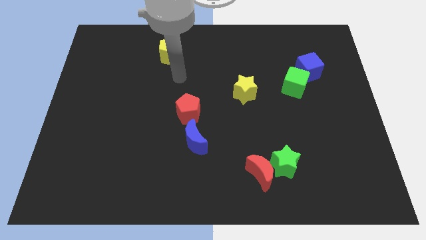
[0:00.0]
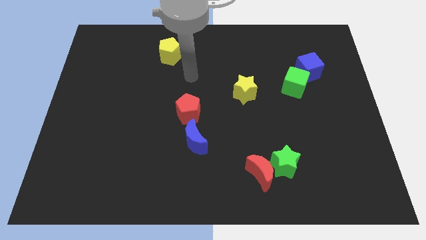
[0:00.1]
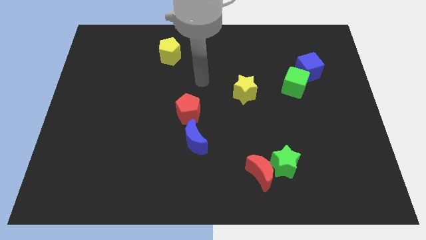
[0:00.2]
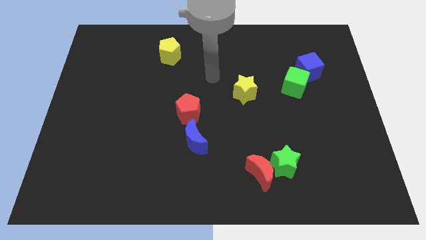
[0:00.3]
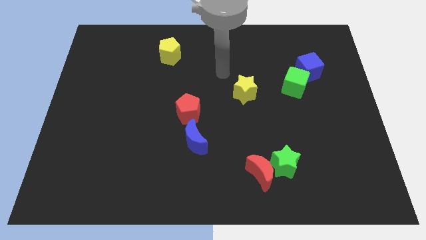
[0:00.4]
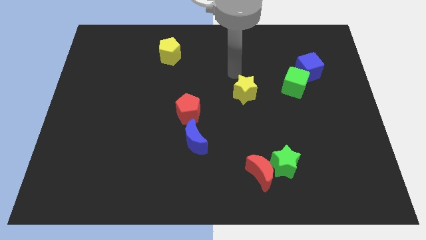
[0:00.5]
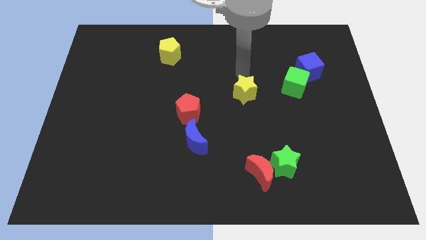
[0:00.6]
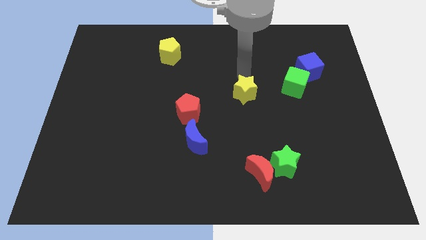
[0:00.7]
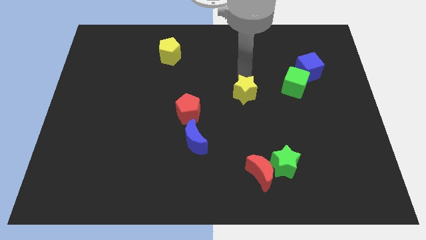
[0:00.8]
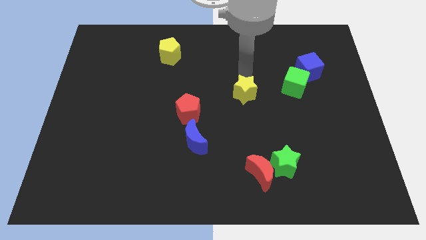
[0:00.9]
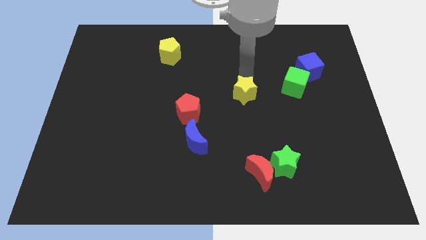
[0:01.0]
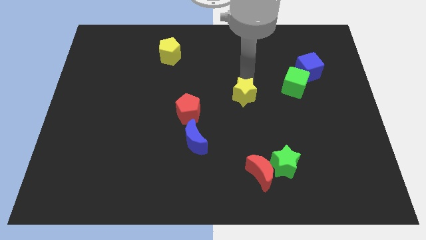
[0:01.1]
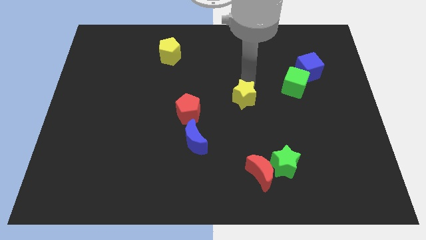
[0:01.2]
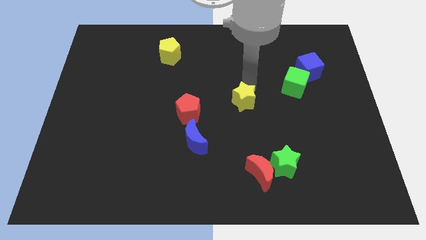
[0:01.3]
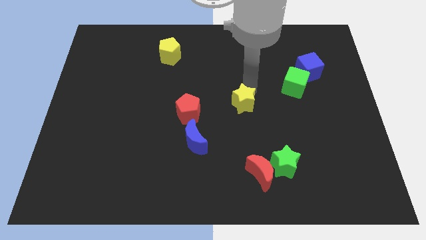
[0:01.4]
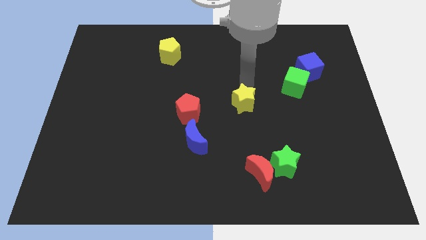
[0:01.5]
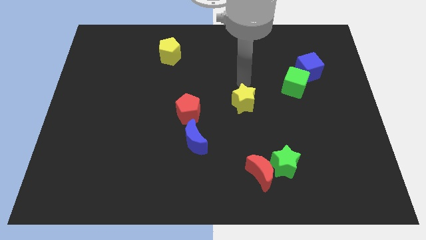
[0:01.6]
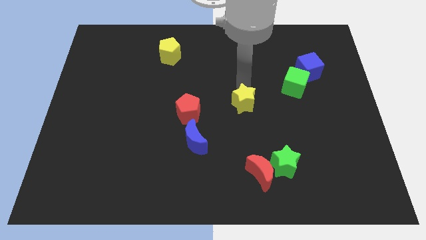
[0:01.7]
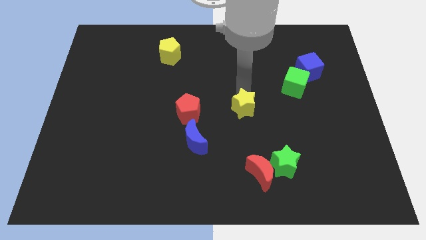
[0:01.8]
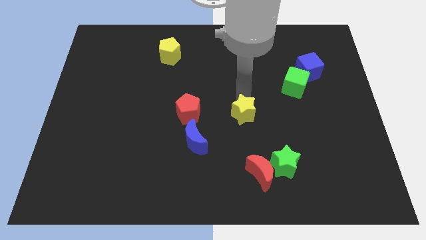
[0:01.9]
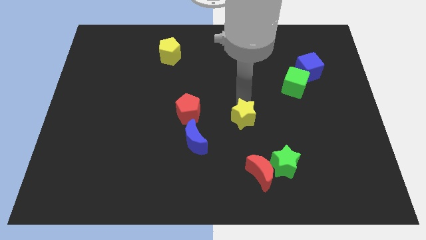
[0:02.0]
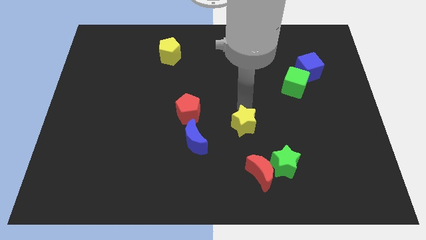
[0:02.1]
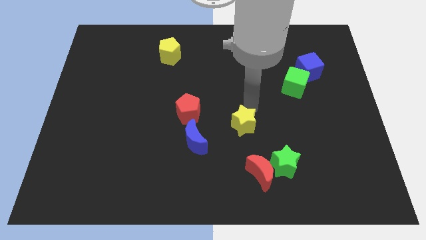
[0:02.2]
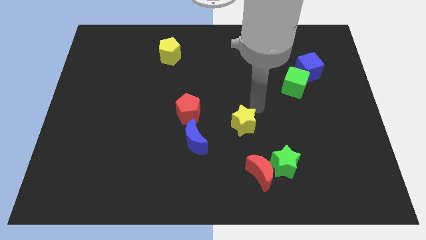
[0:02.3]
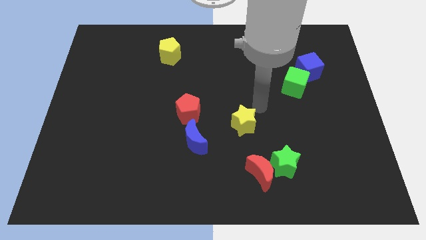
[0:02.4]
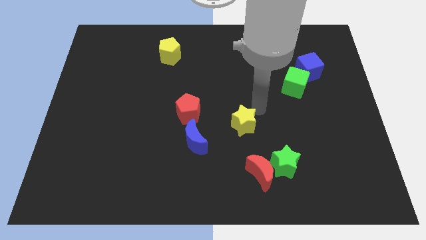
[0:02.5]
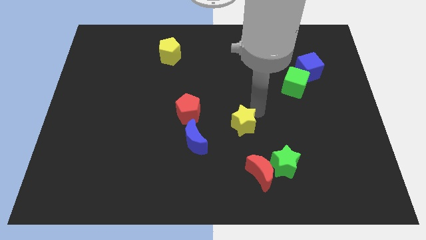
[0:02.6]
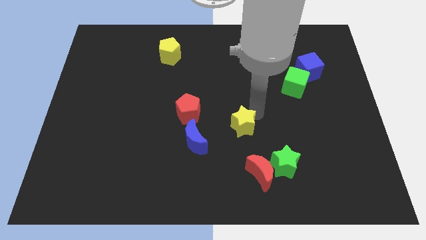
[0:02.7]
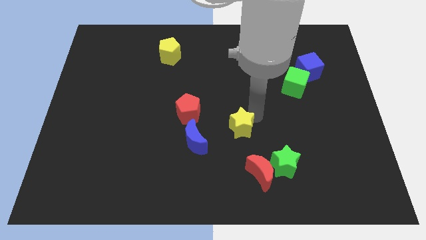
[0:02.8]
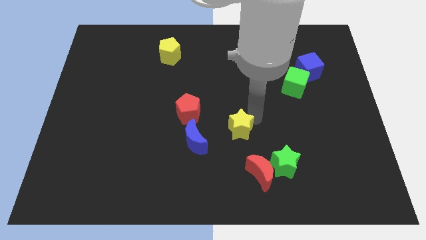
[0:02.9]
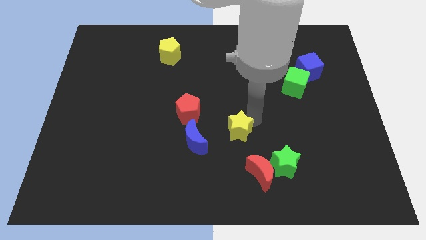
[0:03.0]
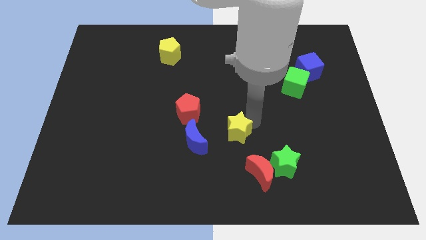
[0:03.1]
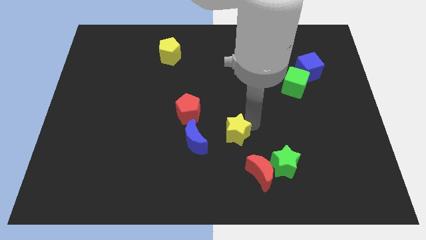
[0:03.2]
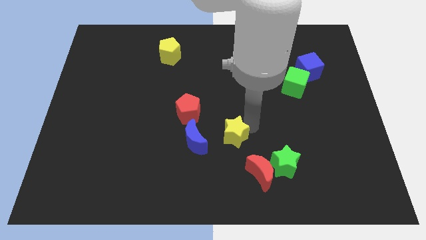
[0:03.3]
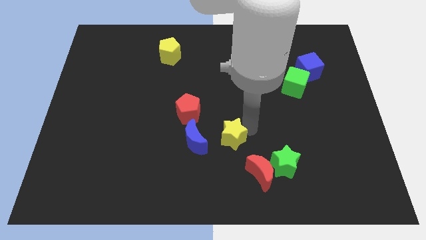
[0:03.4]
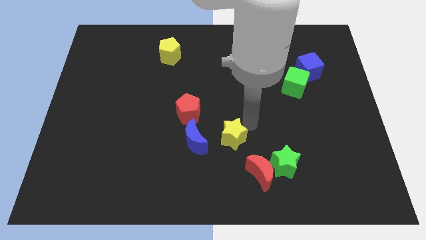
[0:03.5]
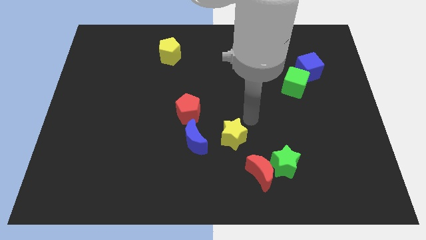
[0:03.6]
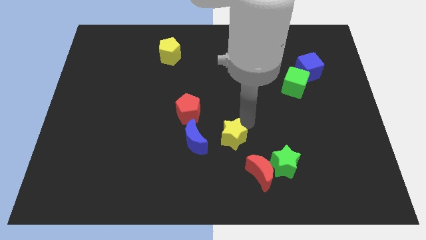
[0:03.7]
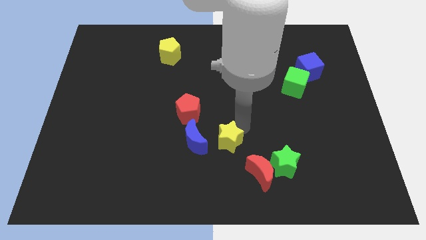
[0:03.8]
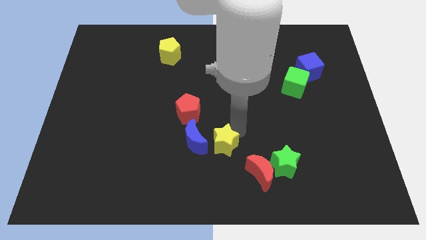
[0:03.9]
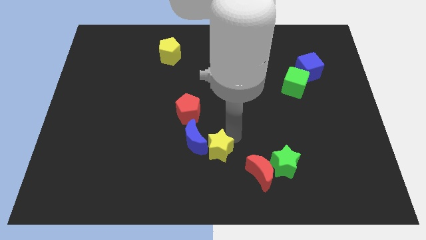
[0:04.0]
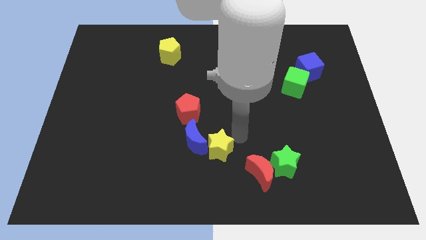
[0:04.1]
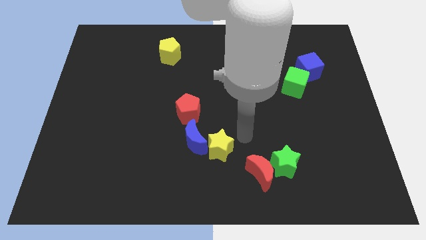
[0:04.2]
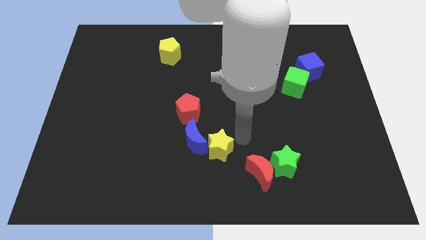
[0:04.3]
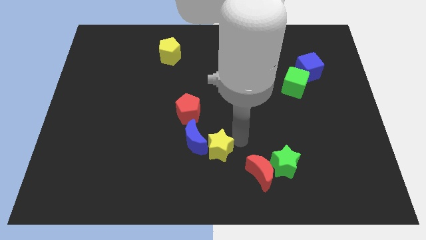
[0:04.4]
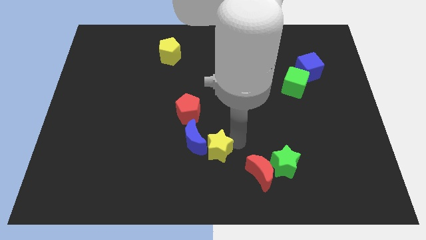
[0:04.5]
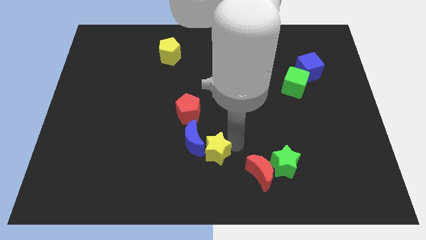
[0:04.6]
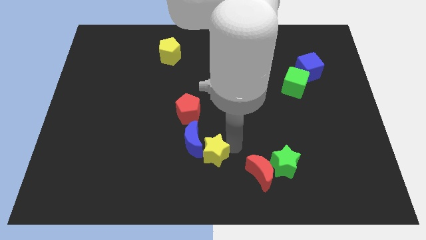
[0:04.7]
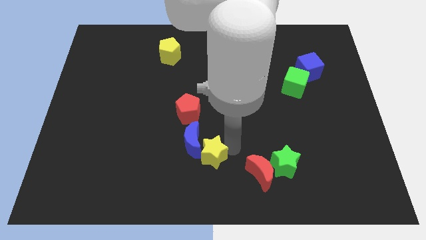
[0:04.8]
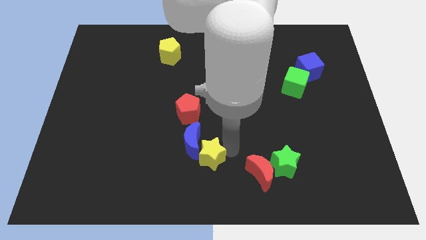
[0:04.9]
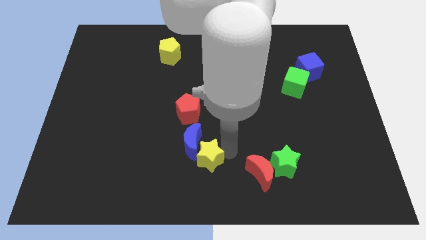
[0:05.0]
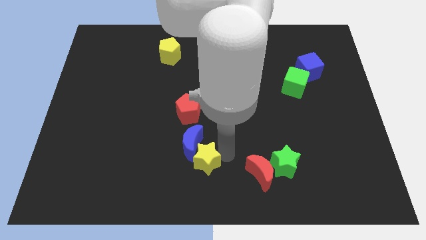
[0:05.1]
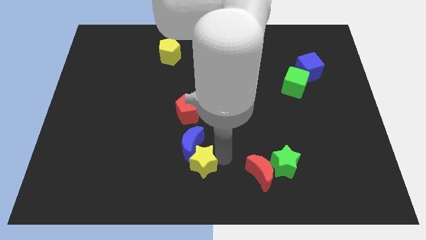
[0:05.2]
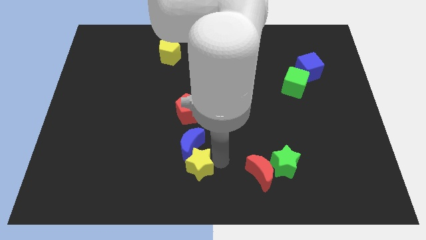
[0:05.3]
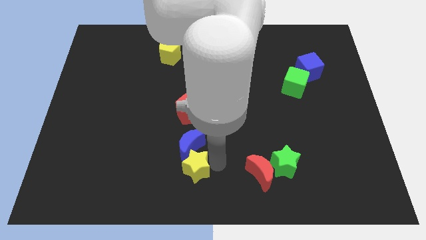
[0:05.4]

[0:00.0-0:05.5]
push the yellow star diagonally downwards and to the left

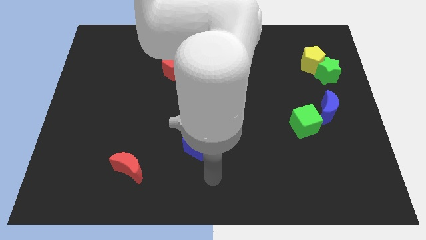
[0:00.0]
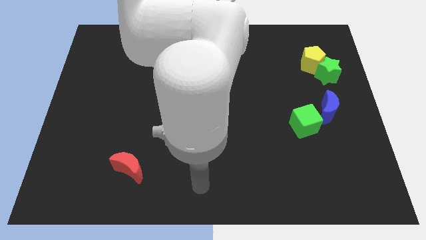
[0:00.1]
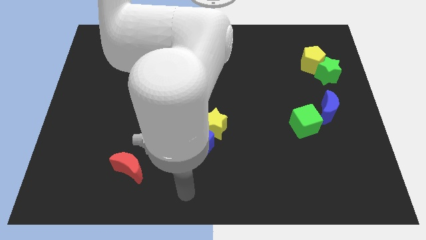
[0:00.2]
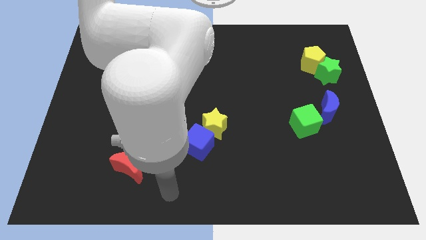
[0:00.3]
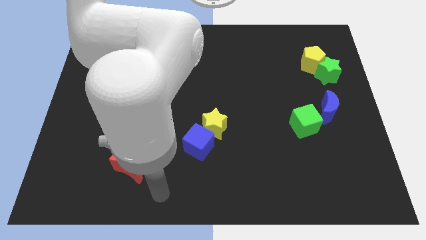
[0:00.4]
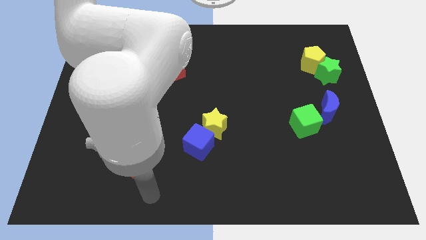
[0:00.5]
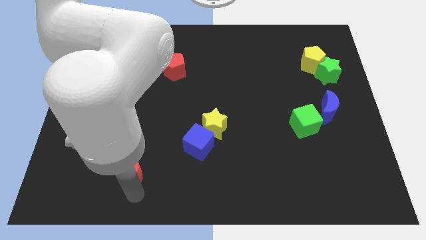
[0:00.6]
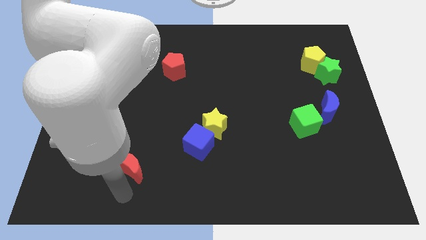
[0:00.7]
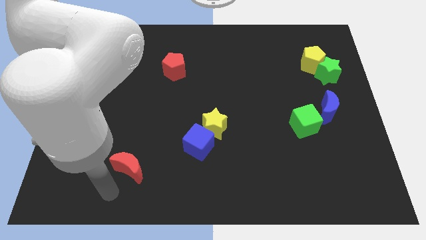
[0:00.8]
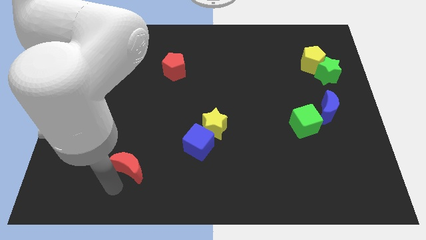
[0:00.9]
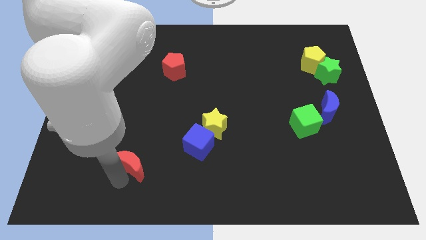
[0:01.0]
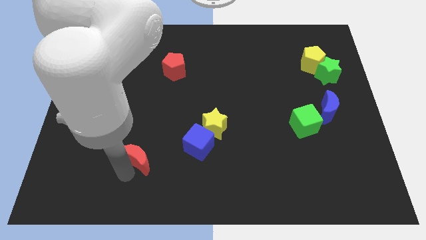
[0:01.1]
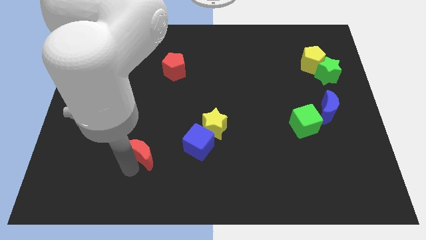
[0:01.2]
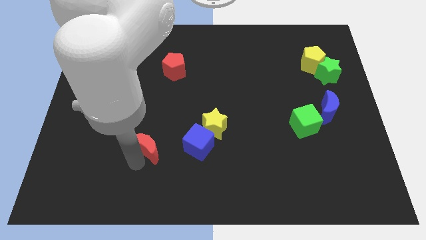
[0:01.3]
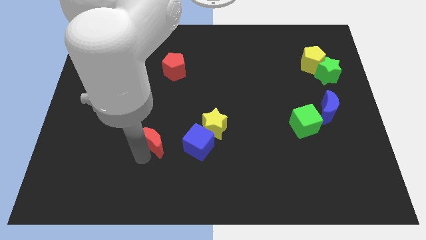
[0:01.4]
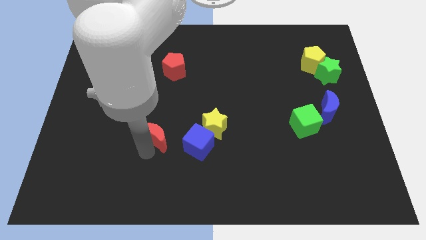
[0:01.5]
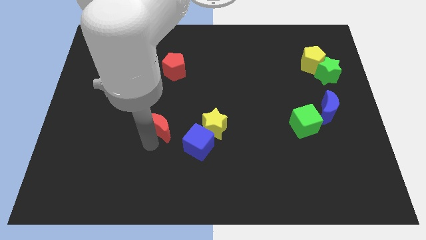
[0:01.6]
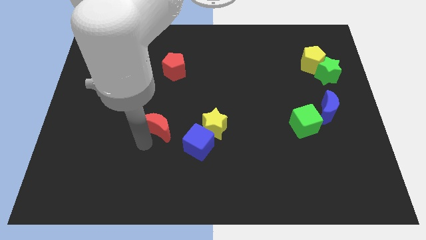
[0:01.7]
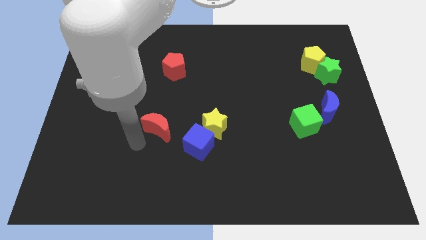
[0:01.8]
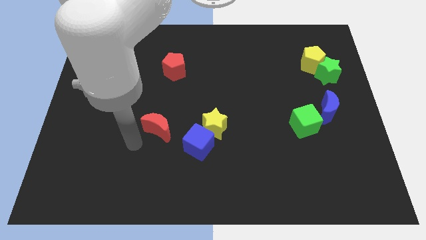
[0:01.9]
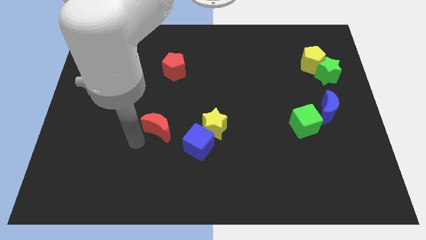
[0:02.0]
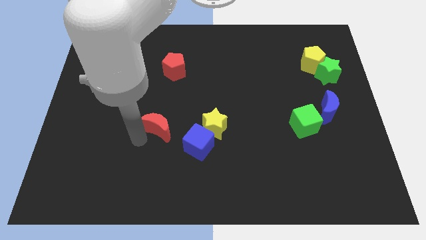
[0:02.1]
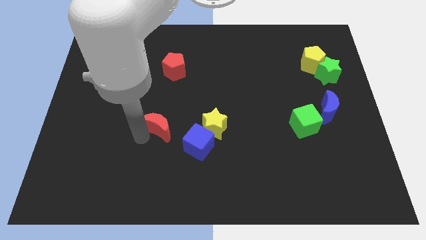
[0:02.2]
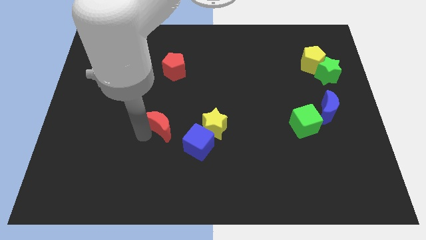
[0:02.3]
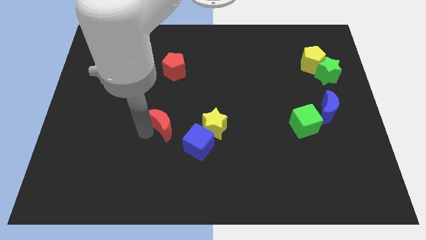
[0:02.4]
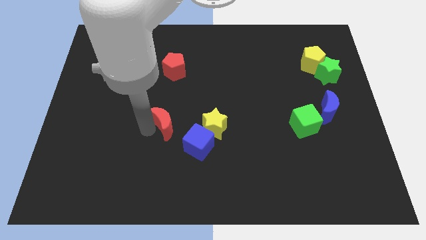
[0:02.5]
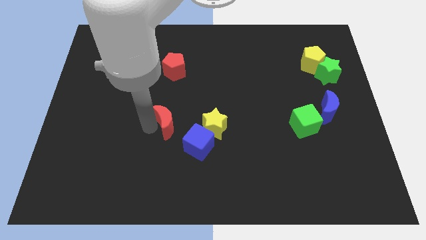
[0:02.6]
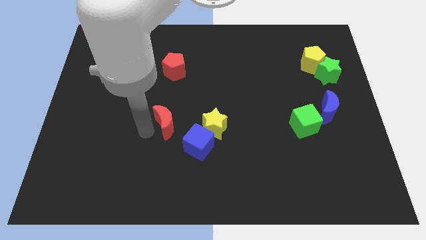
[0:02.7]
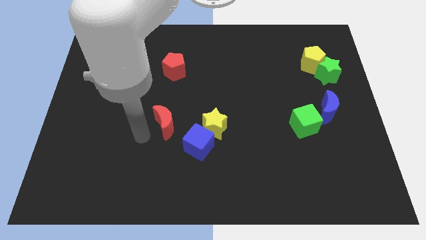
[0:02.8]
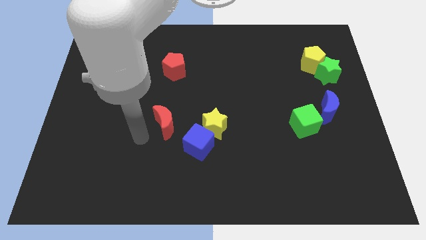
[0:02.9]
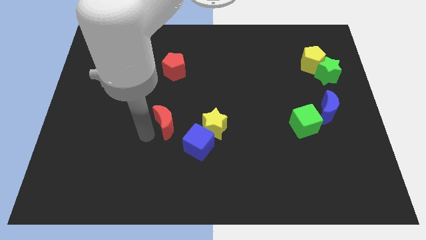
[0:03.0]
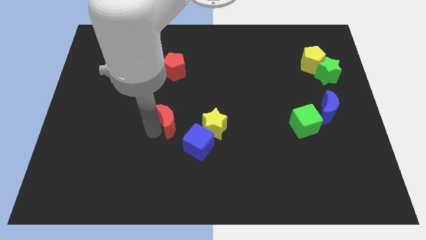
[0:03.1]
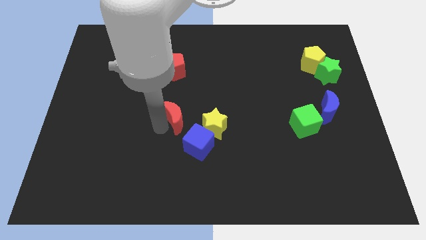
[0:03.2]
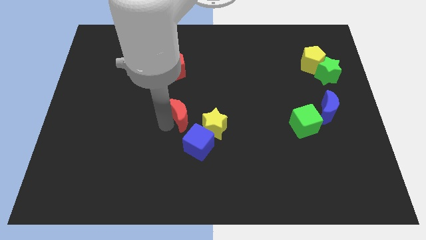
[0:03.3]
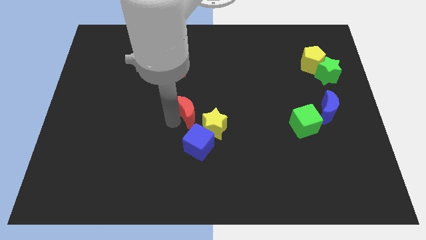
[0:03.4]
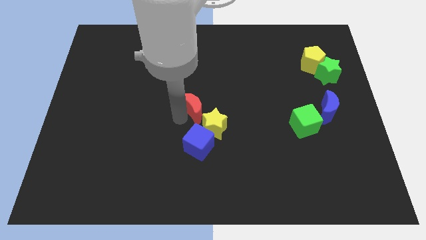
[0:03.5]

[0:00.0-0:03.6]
push the red moon diagonally upwards and to the right
